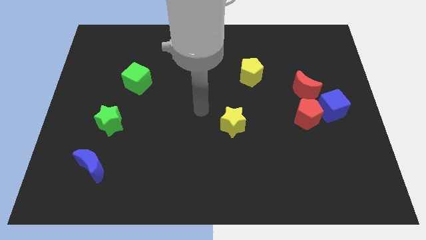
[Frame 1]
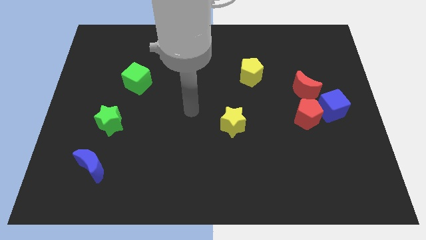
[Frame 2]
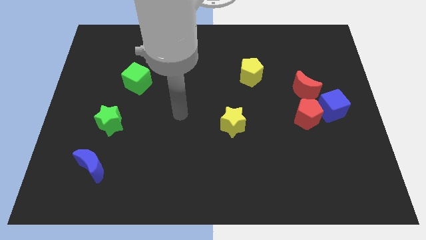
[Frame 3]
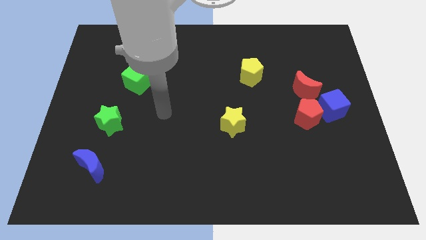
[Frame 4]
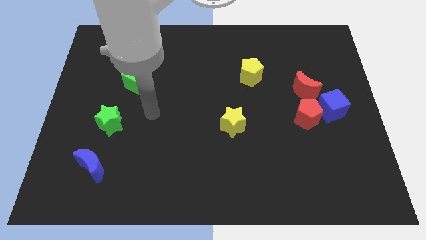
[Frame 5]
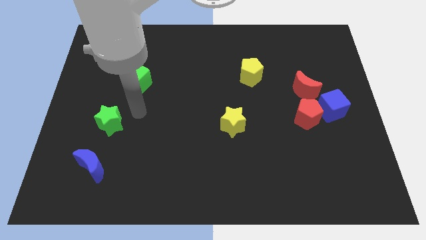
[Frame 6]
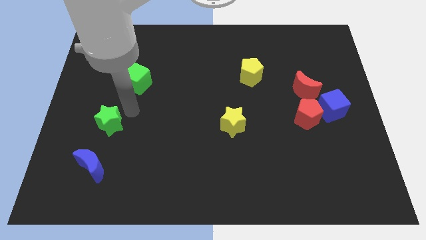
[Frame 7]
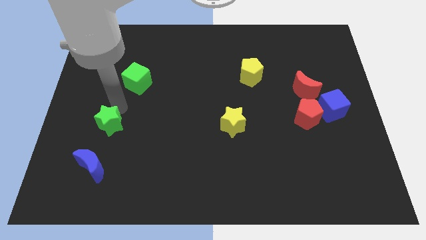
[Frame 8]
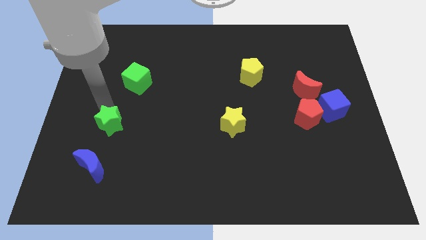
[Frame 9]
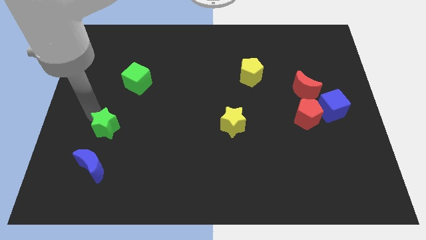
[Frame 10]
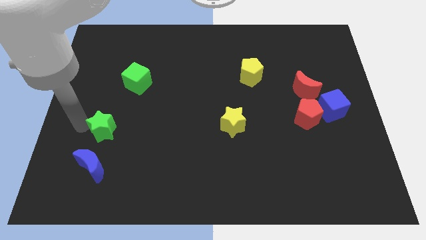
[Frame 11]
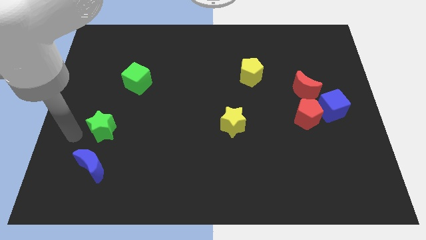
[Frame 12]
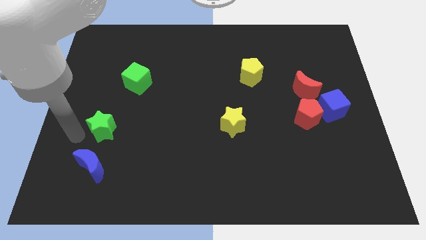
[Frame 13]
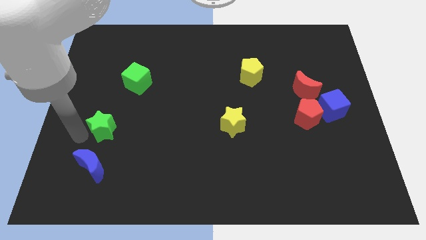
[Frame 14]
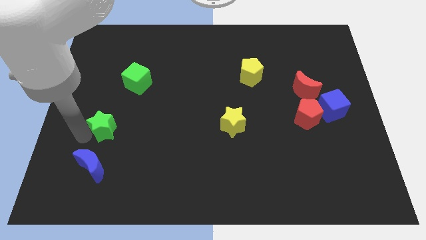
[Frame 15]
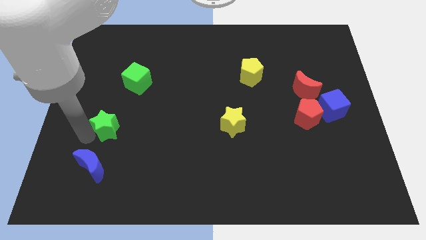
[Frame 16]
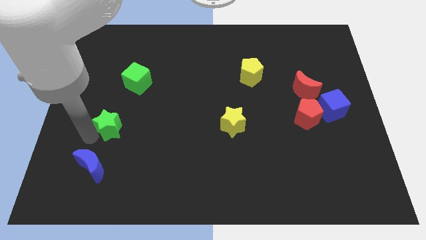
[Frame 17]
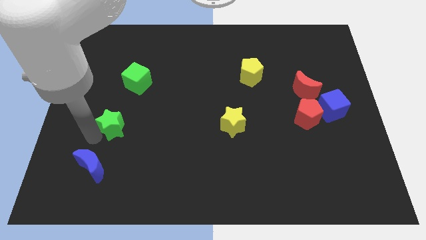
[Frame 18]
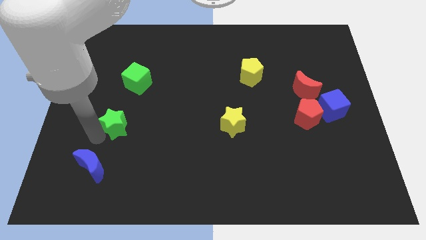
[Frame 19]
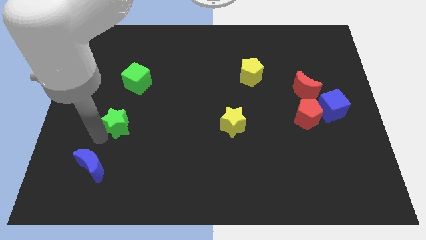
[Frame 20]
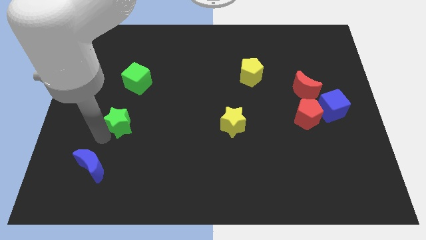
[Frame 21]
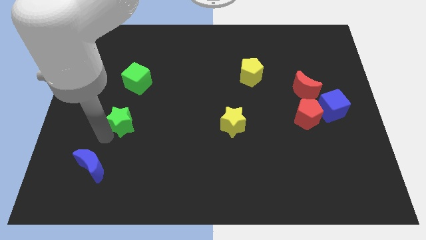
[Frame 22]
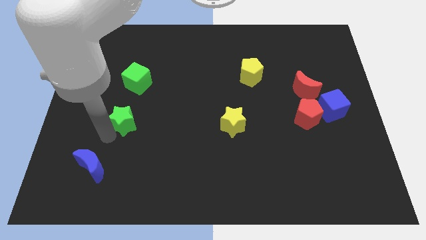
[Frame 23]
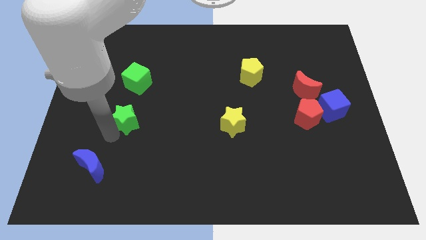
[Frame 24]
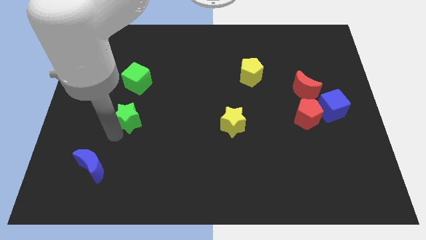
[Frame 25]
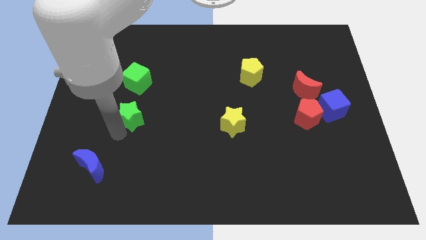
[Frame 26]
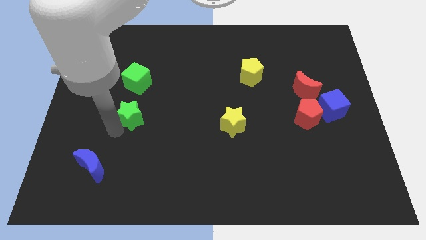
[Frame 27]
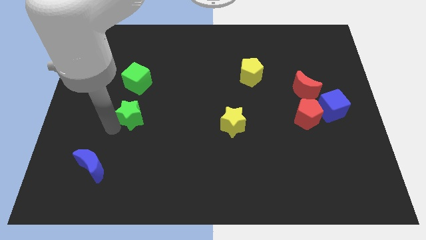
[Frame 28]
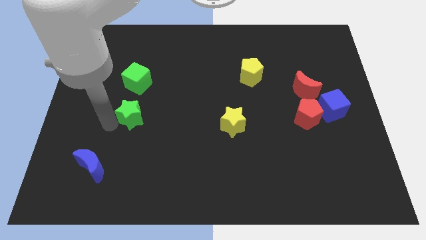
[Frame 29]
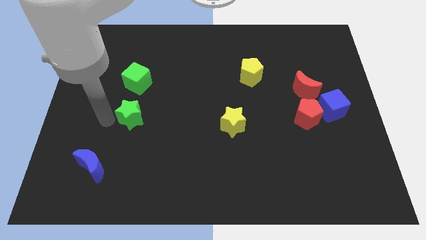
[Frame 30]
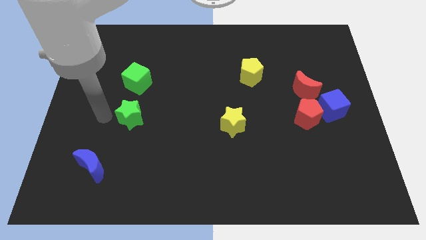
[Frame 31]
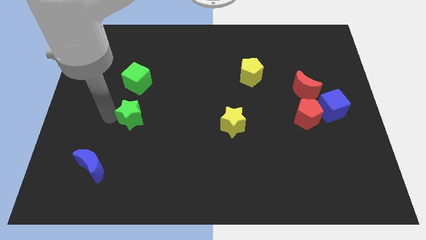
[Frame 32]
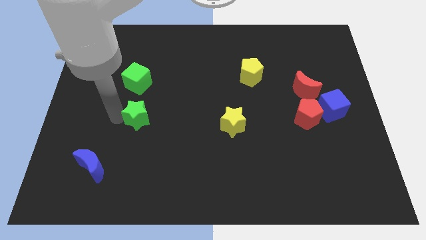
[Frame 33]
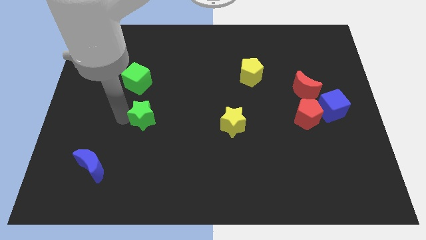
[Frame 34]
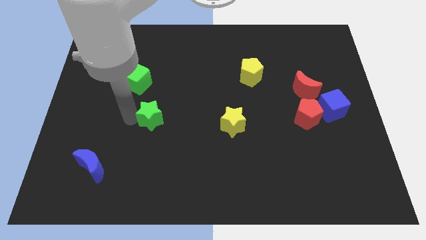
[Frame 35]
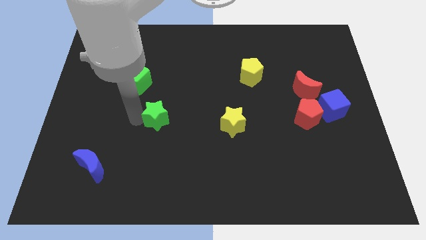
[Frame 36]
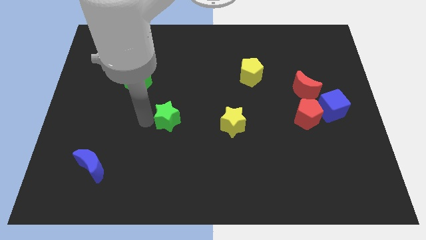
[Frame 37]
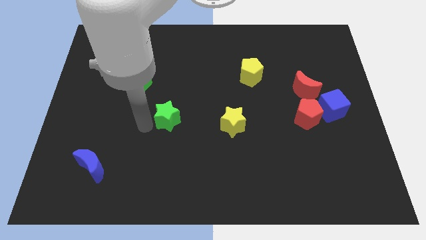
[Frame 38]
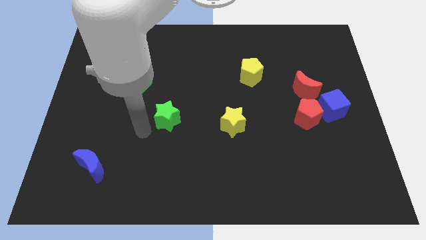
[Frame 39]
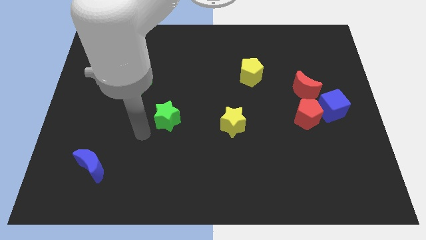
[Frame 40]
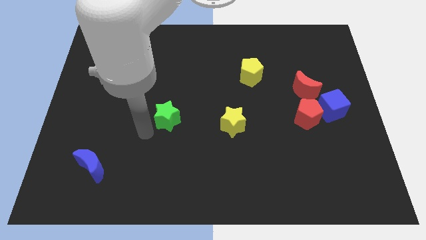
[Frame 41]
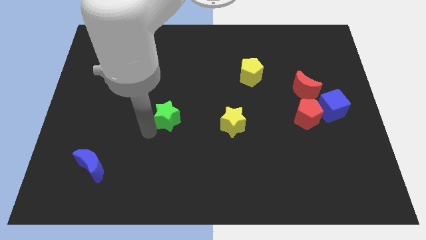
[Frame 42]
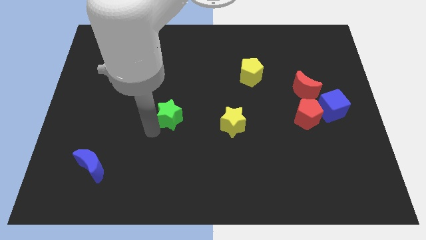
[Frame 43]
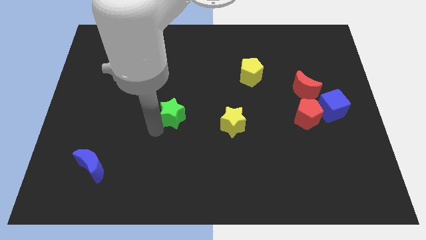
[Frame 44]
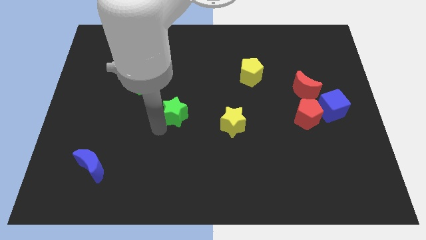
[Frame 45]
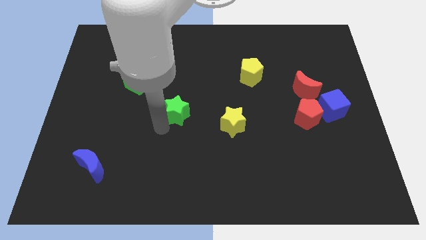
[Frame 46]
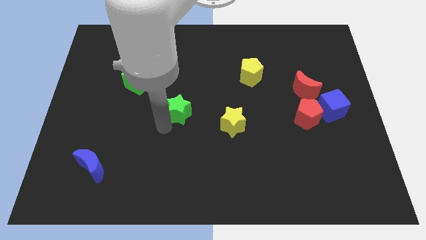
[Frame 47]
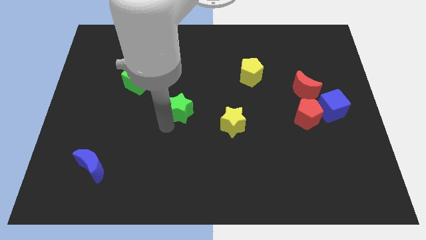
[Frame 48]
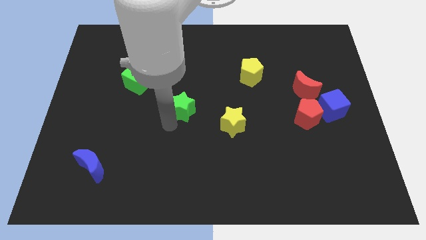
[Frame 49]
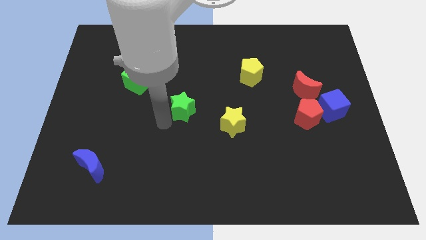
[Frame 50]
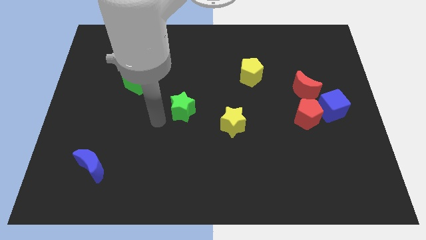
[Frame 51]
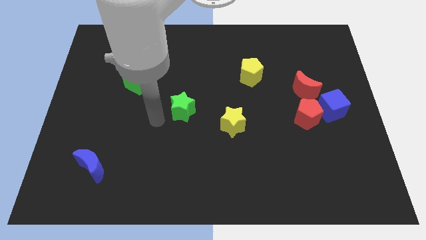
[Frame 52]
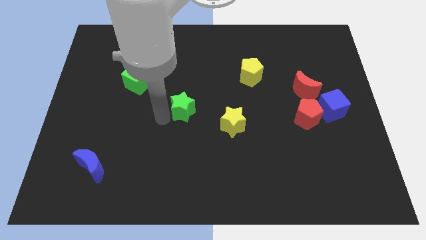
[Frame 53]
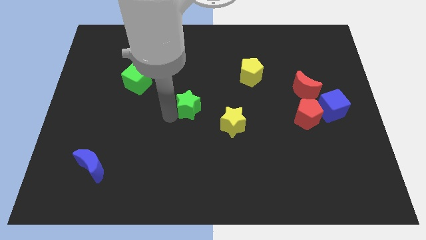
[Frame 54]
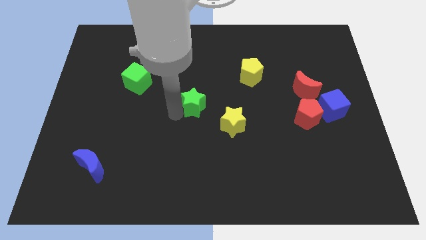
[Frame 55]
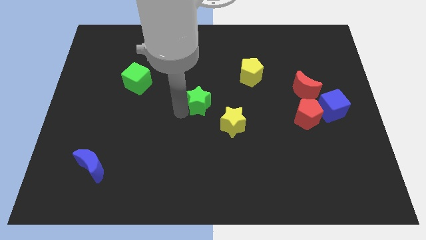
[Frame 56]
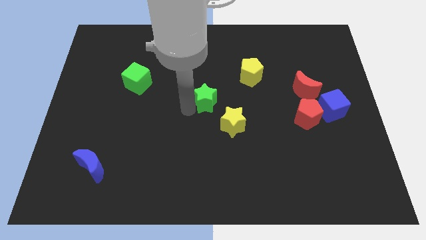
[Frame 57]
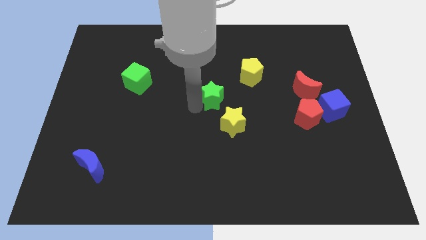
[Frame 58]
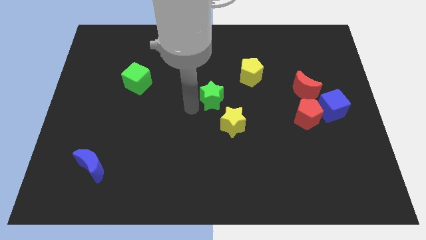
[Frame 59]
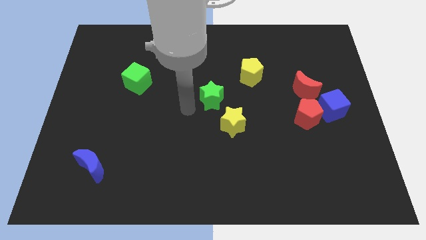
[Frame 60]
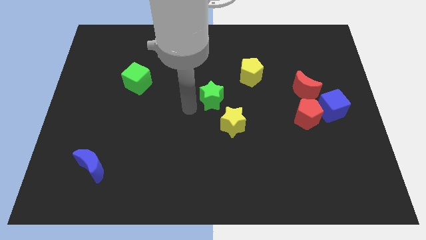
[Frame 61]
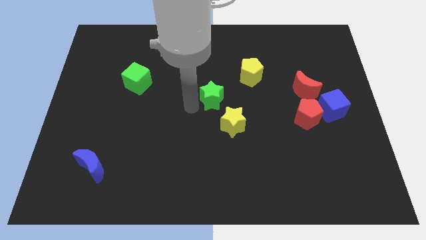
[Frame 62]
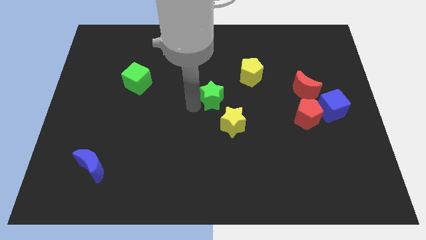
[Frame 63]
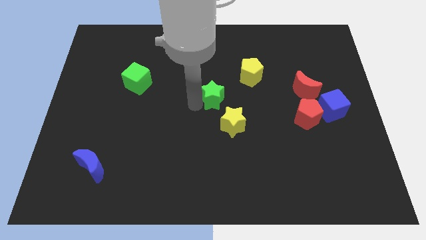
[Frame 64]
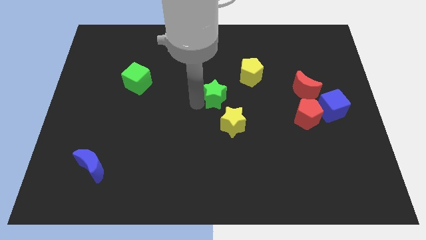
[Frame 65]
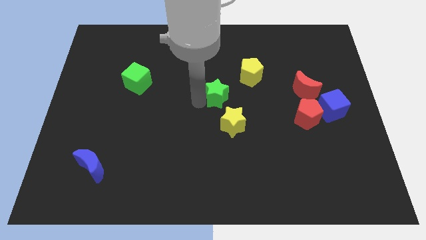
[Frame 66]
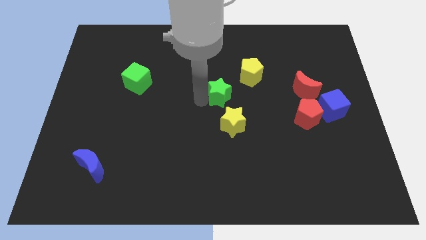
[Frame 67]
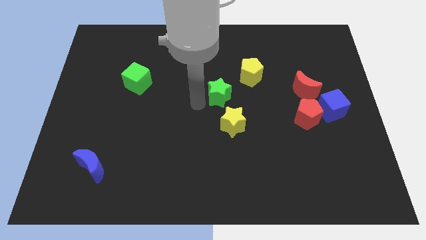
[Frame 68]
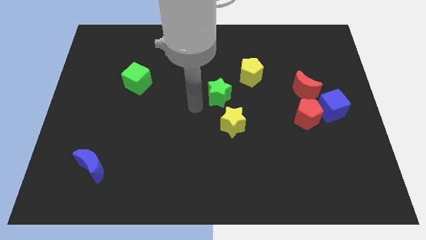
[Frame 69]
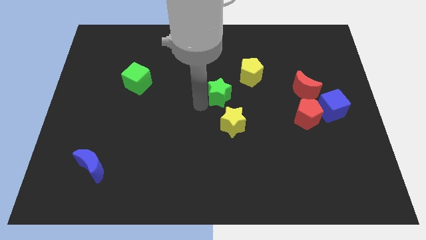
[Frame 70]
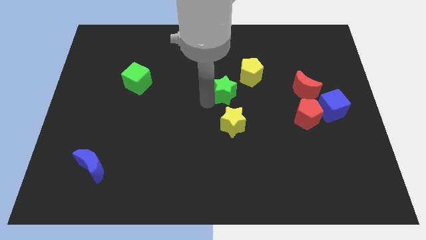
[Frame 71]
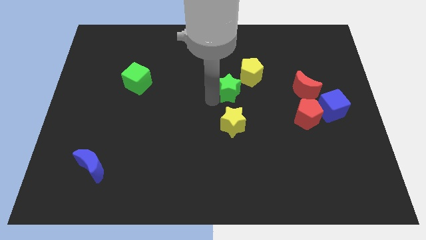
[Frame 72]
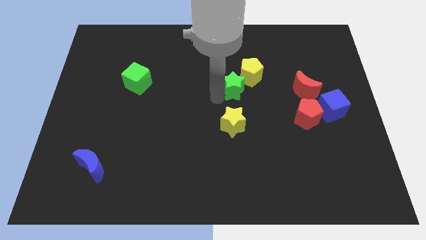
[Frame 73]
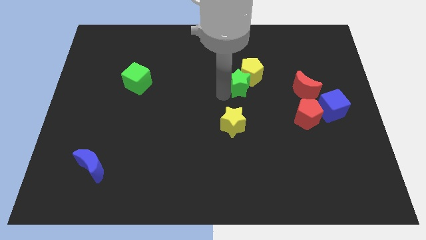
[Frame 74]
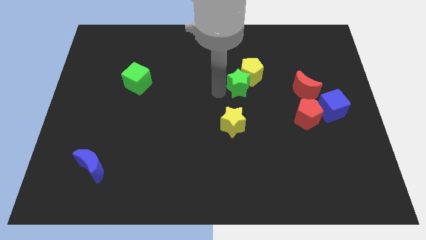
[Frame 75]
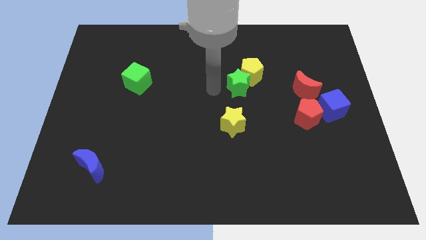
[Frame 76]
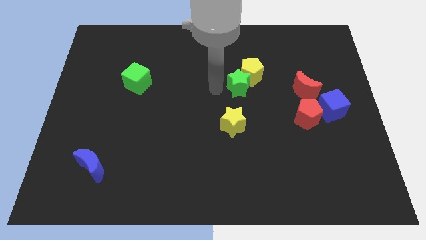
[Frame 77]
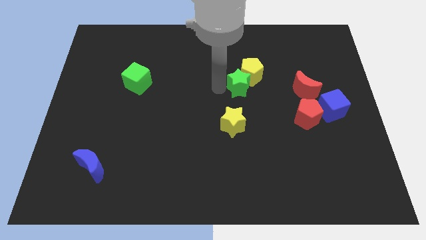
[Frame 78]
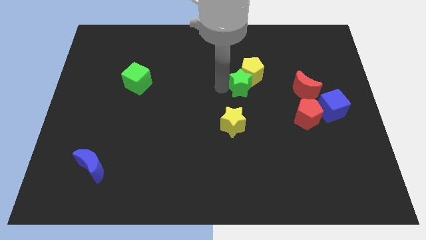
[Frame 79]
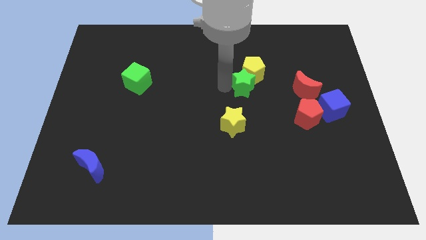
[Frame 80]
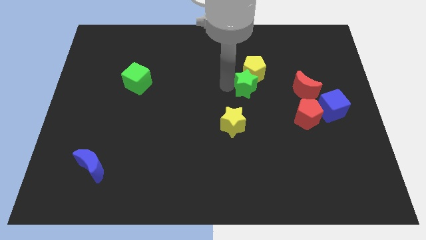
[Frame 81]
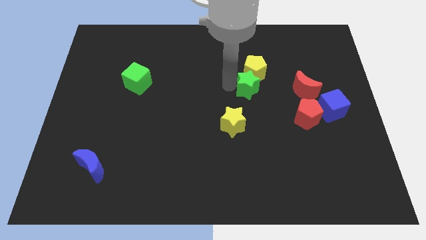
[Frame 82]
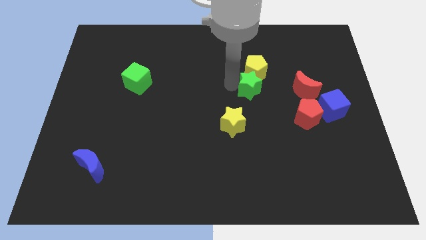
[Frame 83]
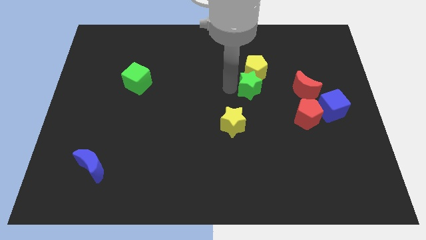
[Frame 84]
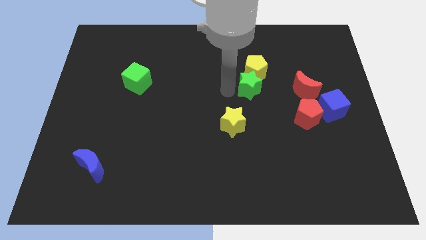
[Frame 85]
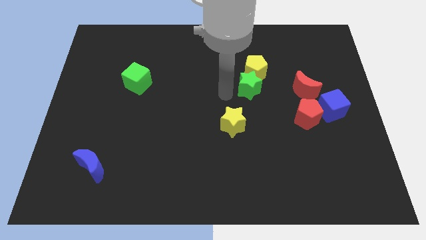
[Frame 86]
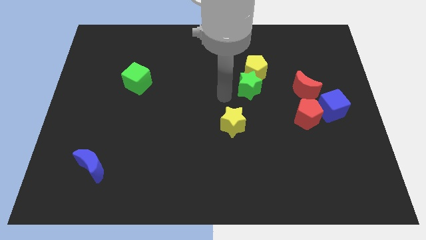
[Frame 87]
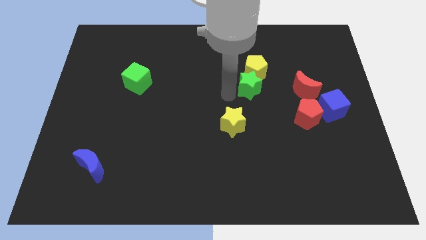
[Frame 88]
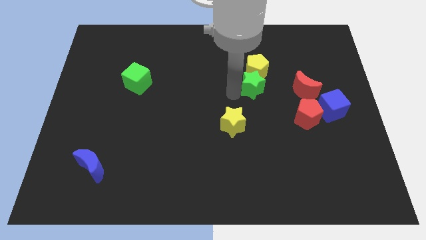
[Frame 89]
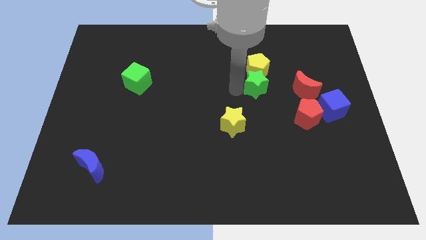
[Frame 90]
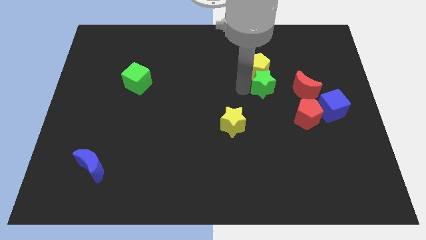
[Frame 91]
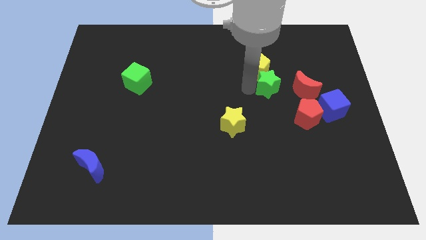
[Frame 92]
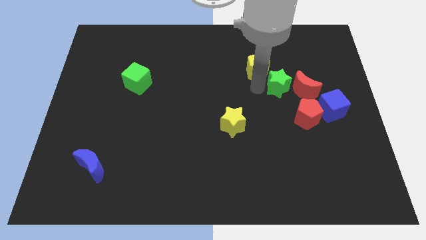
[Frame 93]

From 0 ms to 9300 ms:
move the green star towards the red moon
